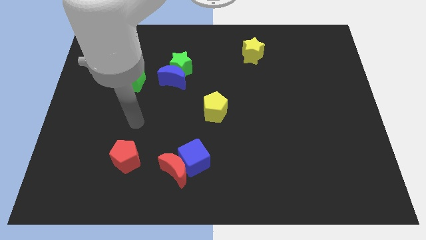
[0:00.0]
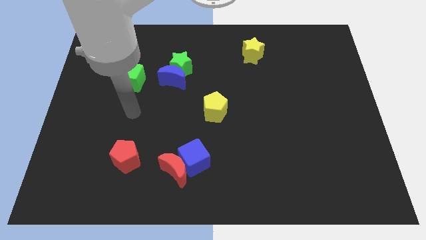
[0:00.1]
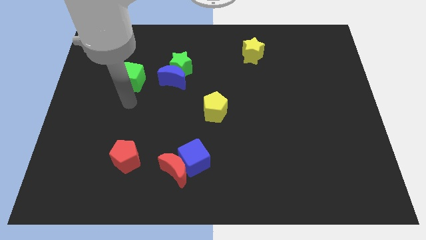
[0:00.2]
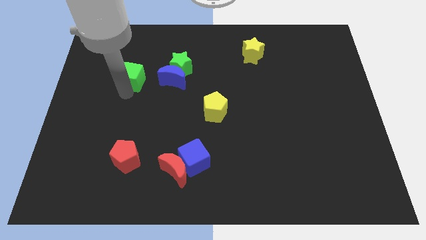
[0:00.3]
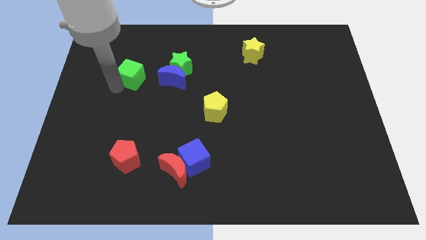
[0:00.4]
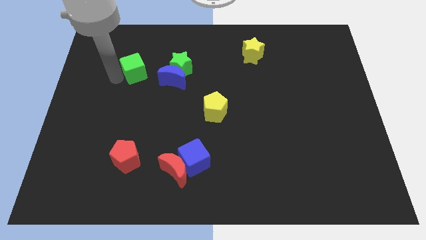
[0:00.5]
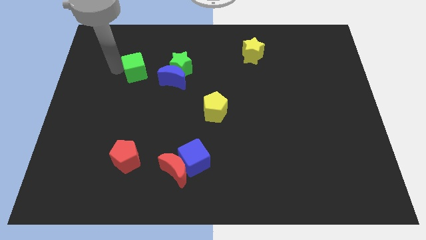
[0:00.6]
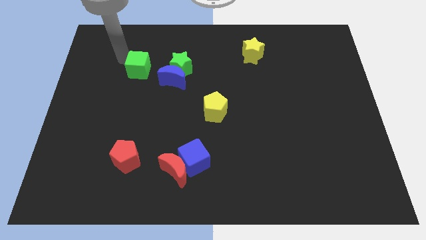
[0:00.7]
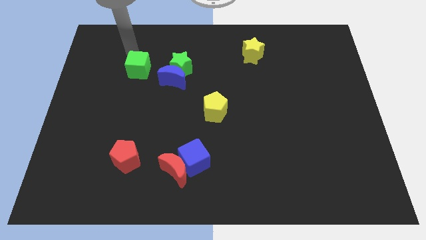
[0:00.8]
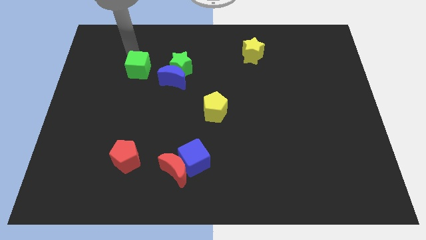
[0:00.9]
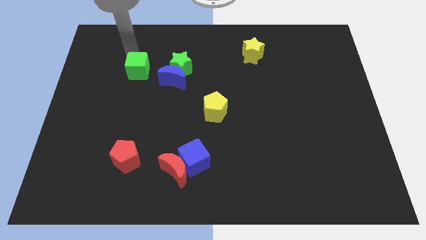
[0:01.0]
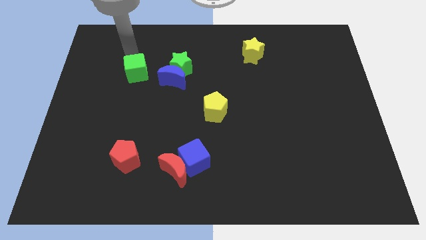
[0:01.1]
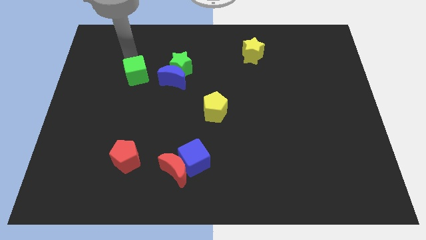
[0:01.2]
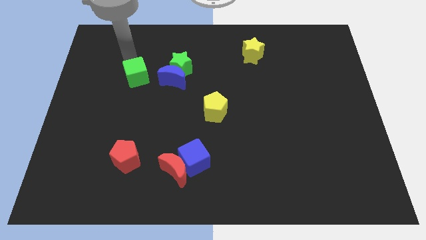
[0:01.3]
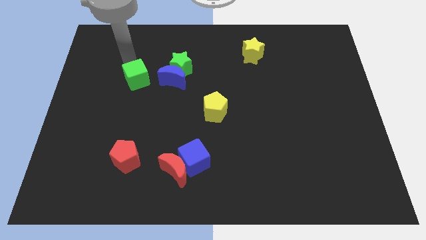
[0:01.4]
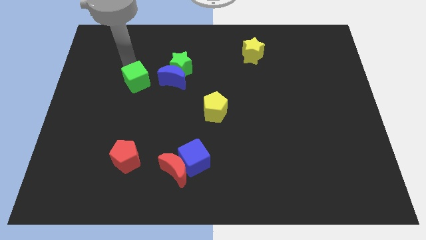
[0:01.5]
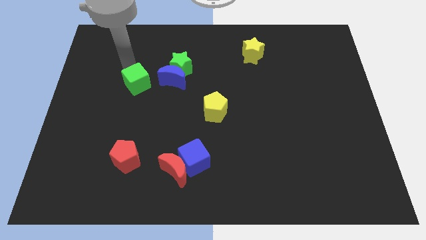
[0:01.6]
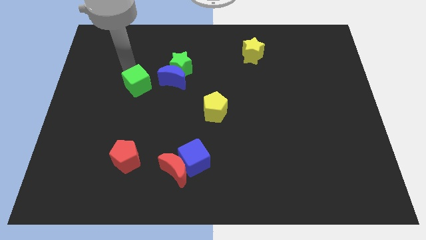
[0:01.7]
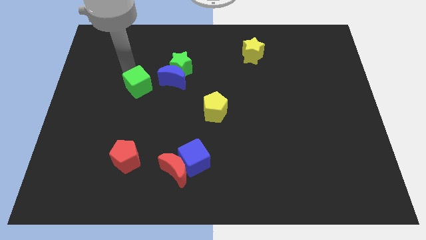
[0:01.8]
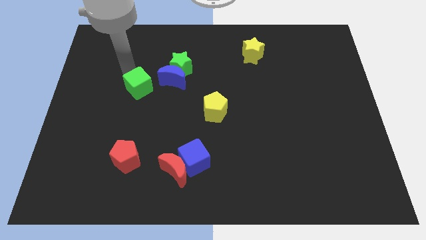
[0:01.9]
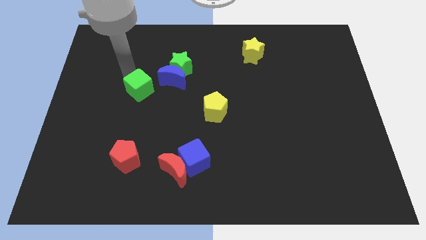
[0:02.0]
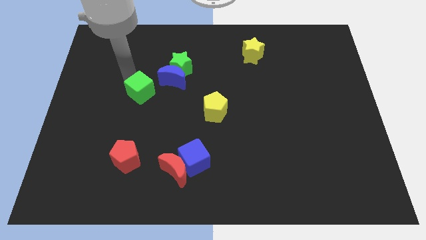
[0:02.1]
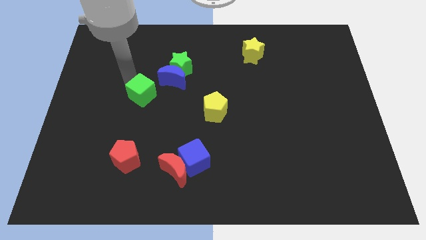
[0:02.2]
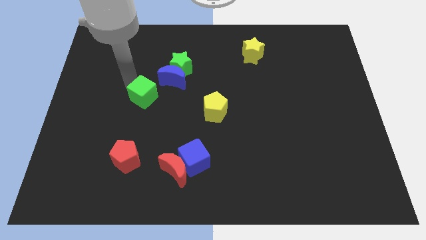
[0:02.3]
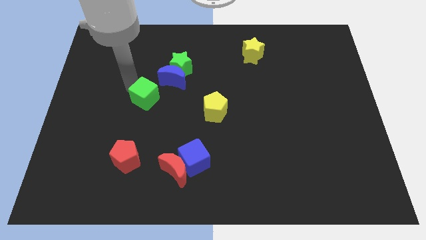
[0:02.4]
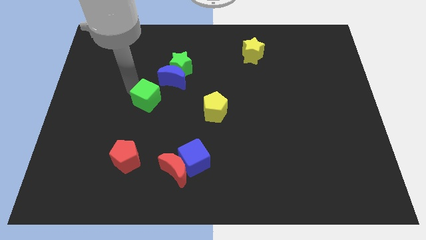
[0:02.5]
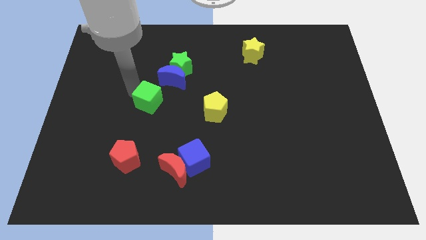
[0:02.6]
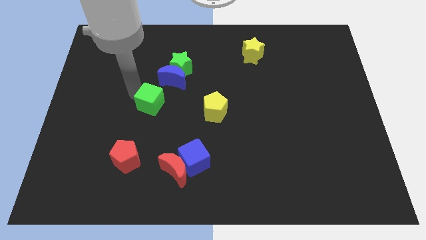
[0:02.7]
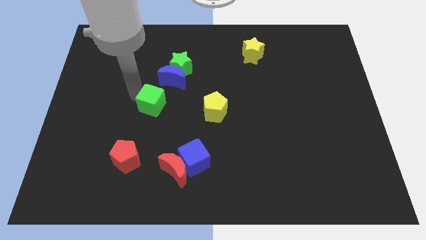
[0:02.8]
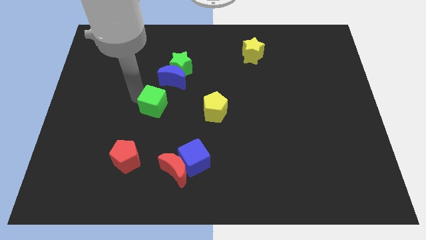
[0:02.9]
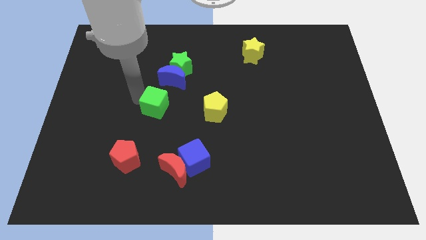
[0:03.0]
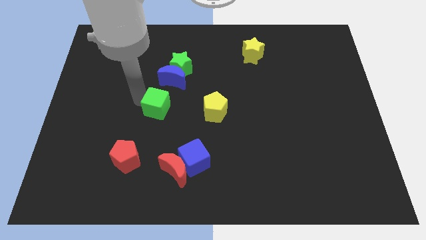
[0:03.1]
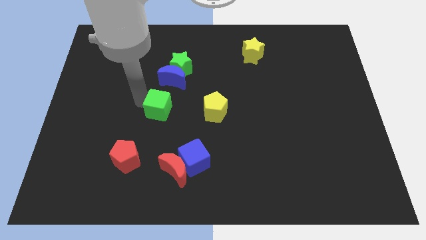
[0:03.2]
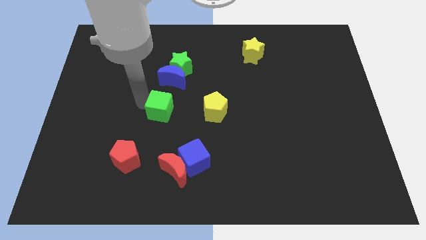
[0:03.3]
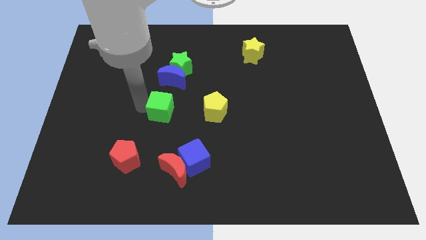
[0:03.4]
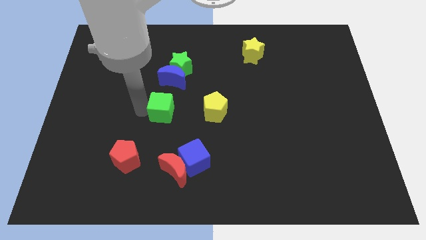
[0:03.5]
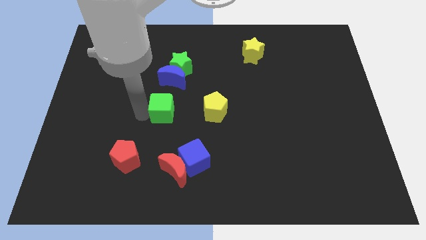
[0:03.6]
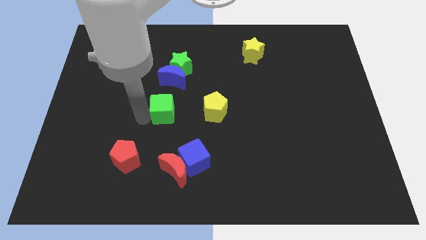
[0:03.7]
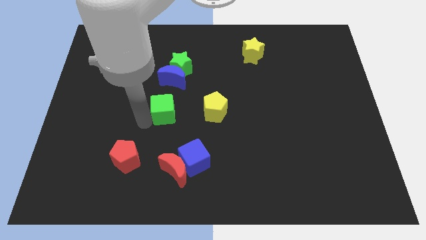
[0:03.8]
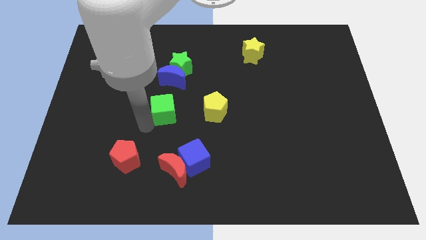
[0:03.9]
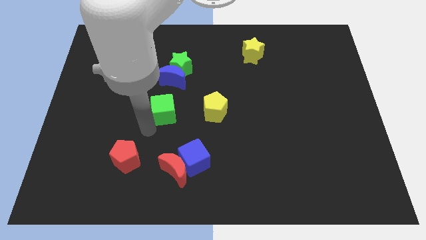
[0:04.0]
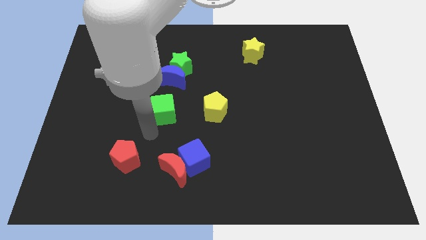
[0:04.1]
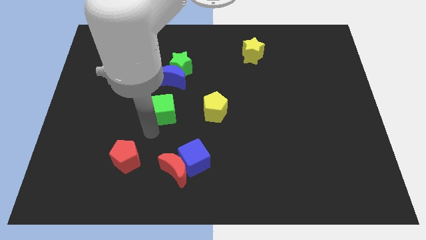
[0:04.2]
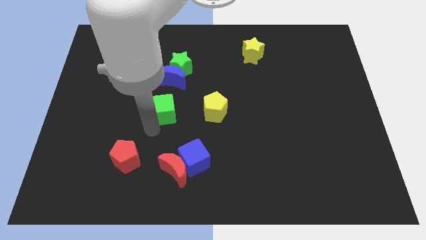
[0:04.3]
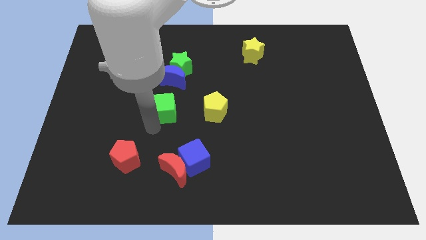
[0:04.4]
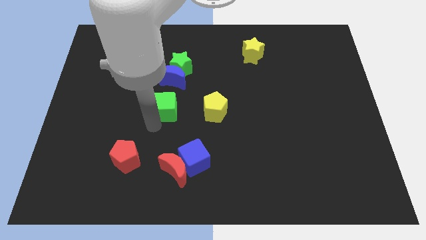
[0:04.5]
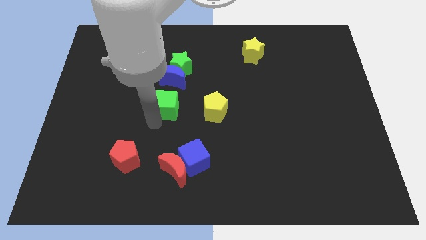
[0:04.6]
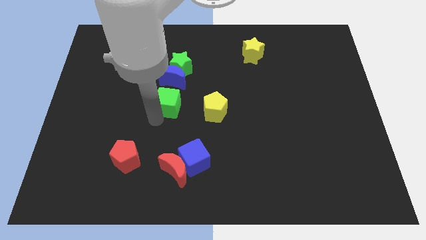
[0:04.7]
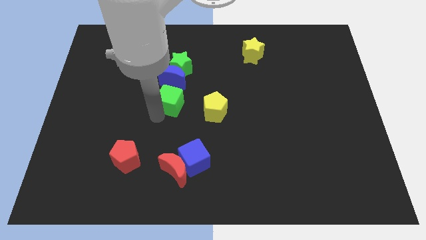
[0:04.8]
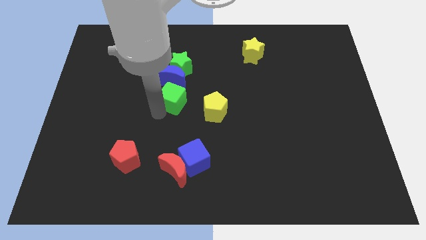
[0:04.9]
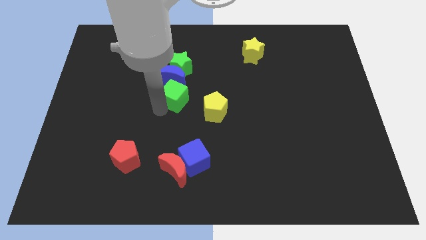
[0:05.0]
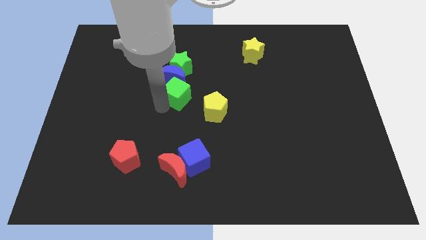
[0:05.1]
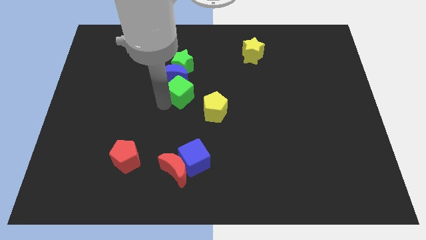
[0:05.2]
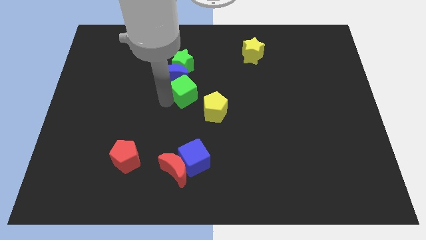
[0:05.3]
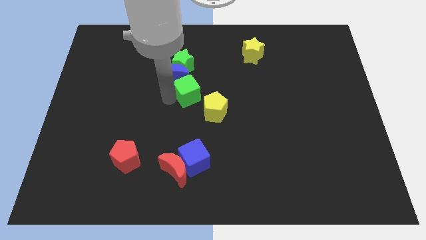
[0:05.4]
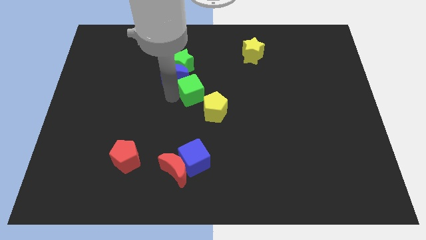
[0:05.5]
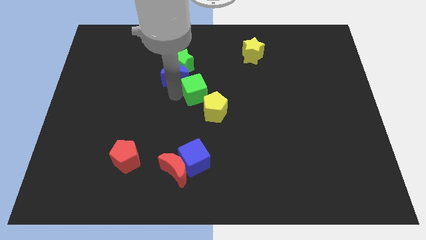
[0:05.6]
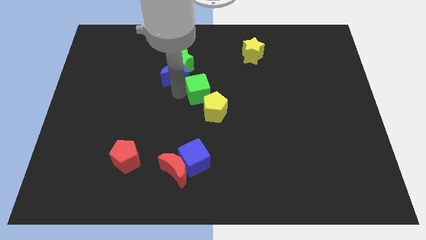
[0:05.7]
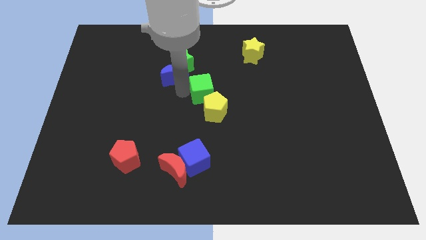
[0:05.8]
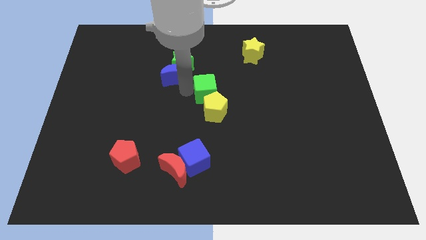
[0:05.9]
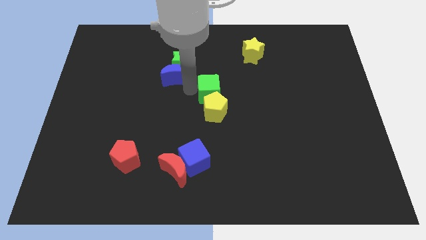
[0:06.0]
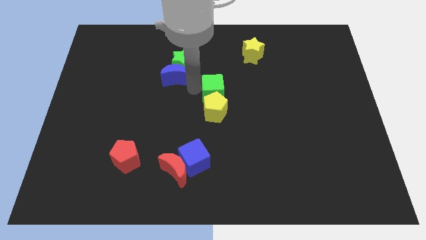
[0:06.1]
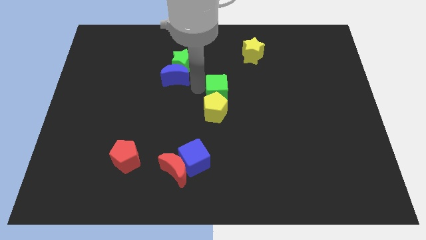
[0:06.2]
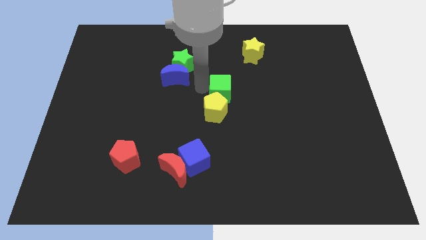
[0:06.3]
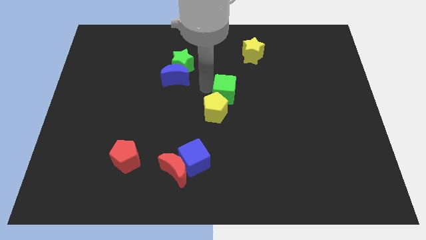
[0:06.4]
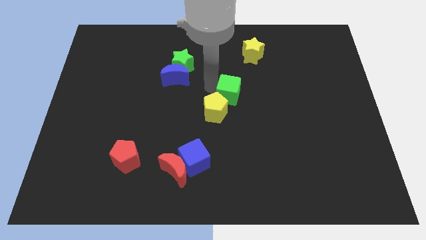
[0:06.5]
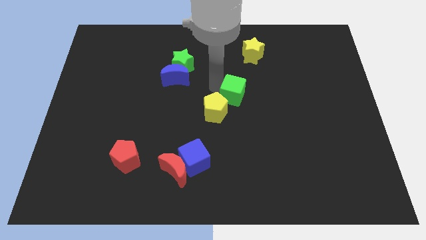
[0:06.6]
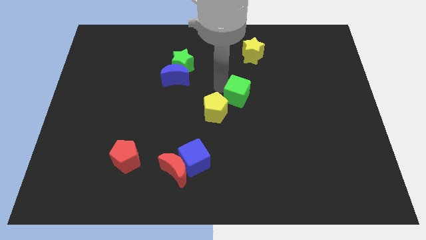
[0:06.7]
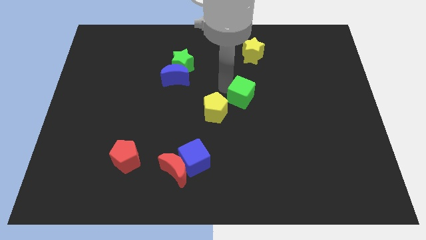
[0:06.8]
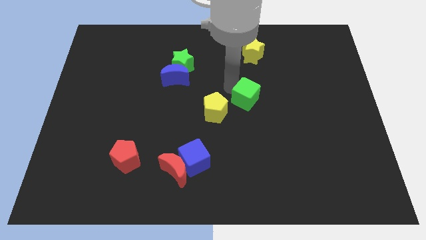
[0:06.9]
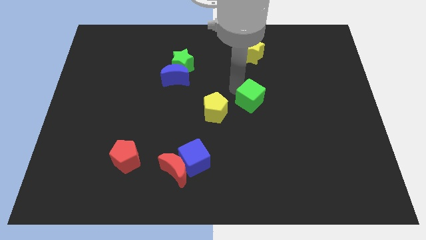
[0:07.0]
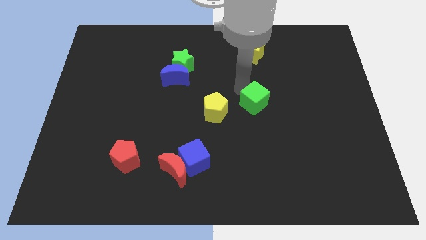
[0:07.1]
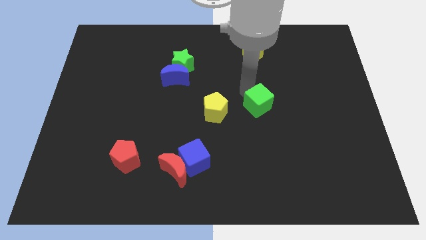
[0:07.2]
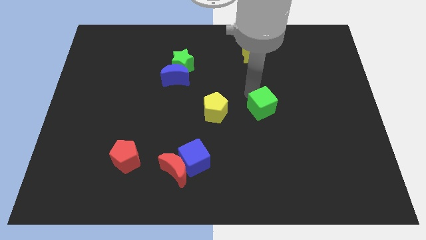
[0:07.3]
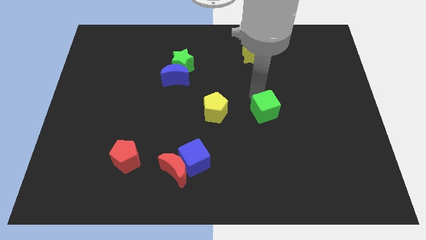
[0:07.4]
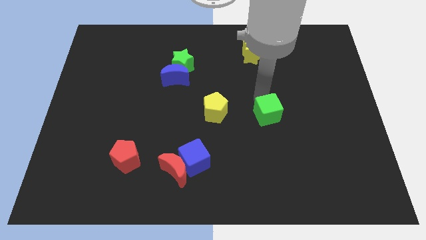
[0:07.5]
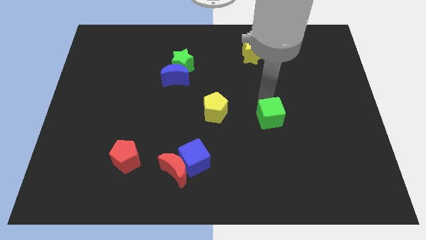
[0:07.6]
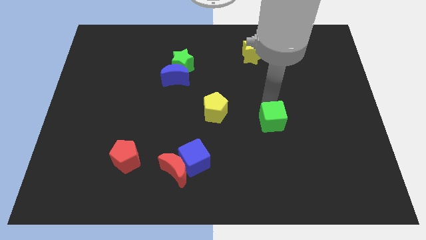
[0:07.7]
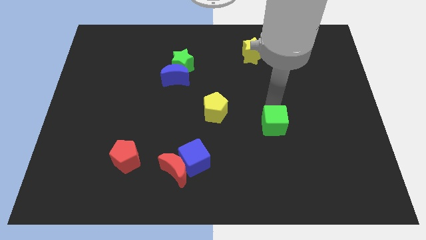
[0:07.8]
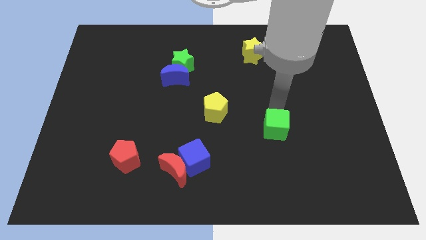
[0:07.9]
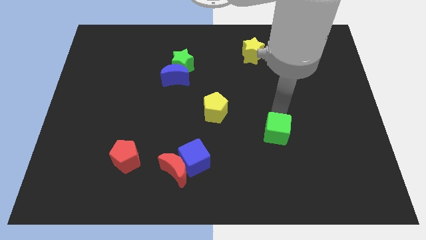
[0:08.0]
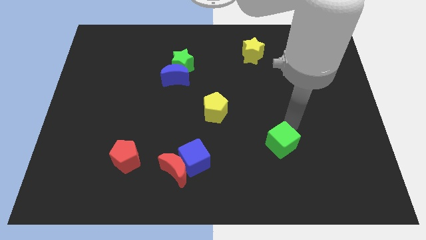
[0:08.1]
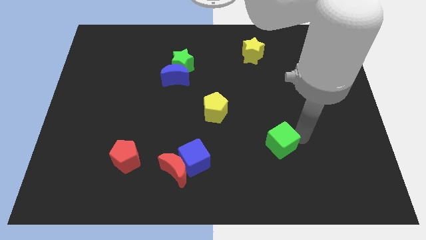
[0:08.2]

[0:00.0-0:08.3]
slide the green cube diagonally downwards and to the right
